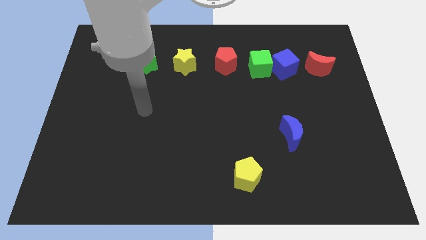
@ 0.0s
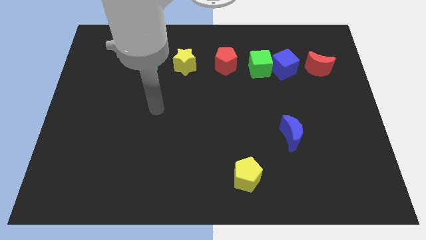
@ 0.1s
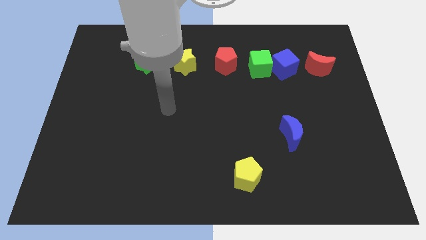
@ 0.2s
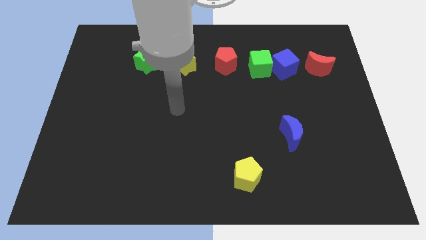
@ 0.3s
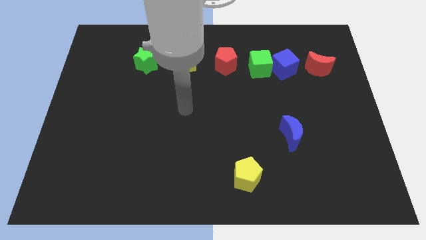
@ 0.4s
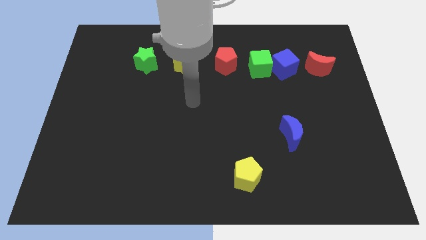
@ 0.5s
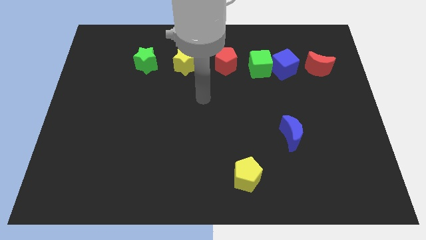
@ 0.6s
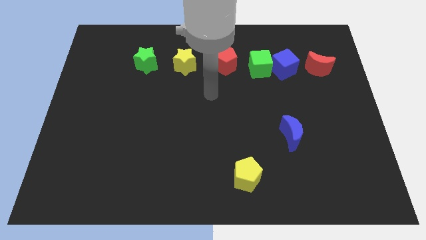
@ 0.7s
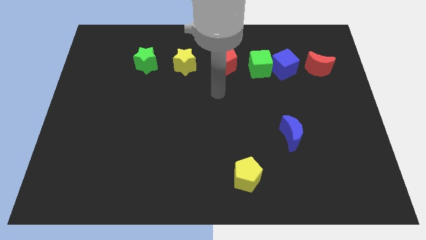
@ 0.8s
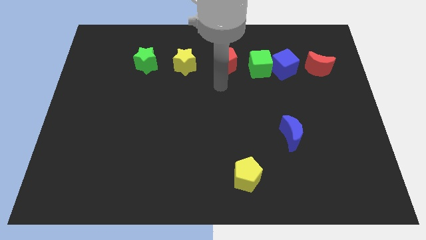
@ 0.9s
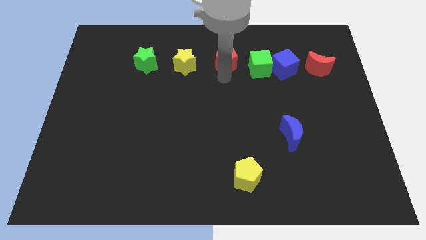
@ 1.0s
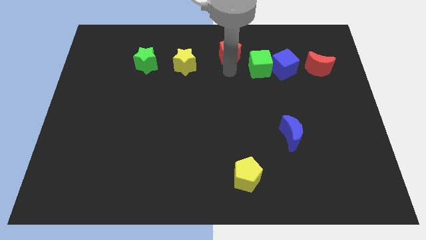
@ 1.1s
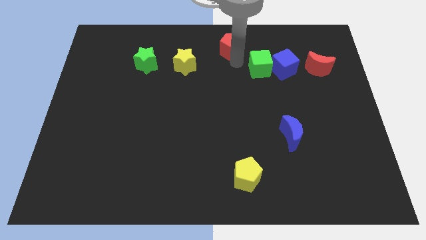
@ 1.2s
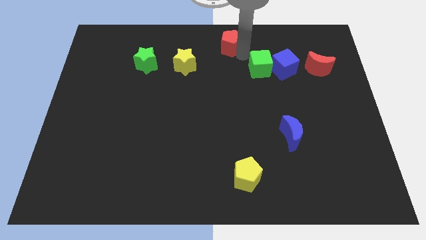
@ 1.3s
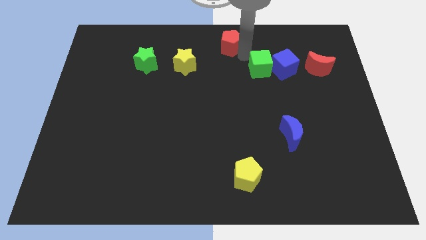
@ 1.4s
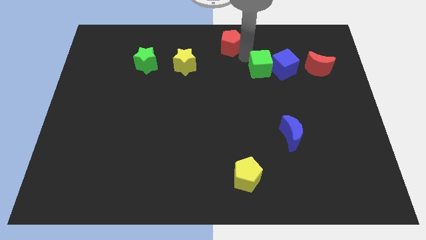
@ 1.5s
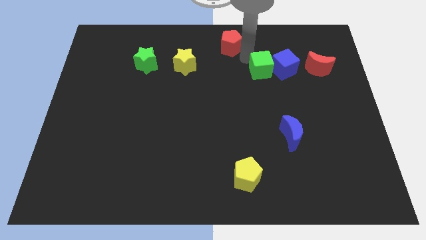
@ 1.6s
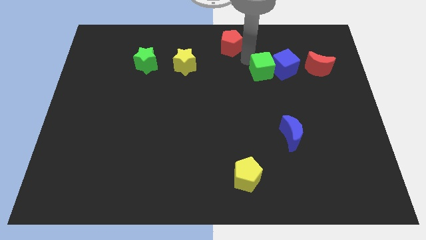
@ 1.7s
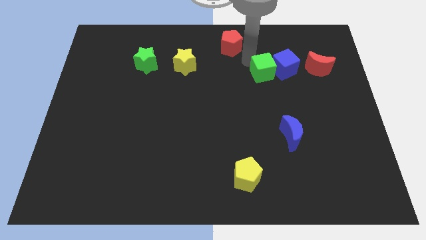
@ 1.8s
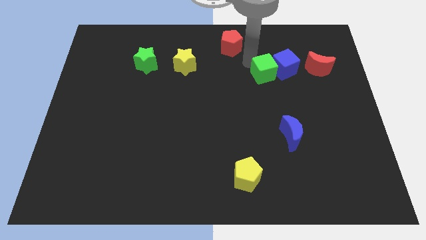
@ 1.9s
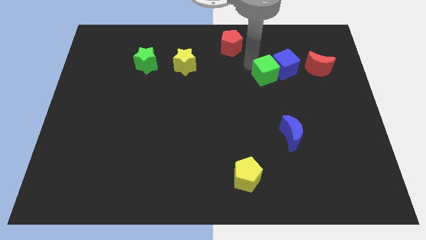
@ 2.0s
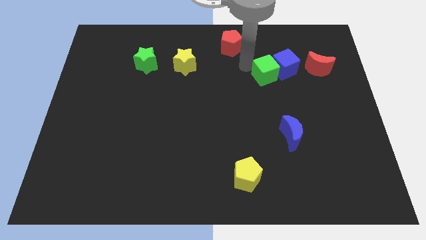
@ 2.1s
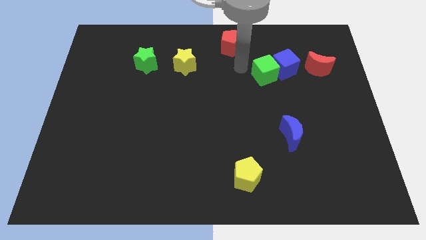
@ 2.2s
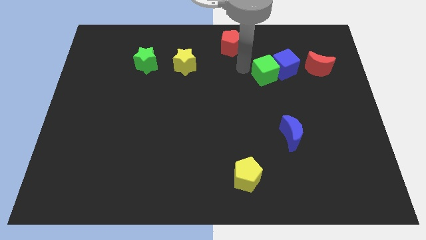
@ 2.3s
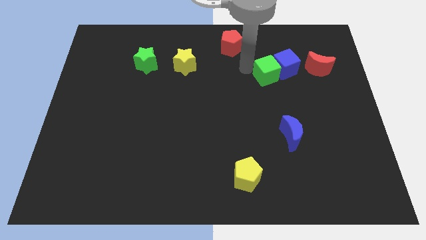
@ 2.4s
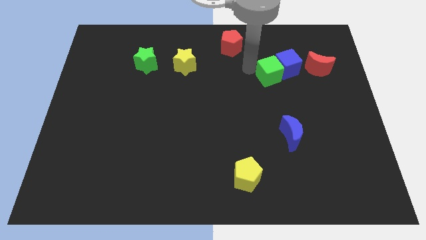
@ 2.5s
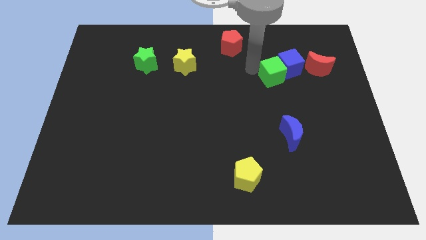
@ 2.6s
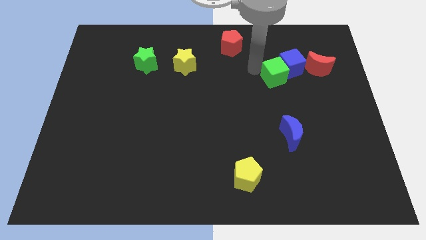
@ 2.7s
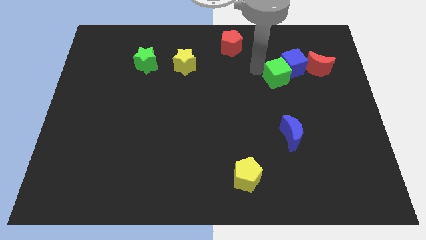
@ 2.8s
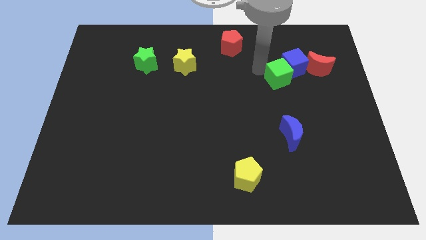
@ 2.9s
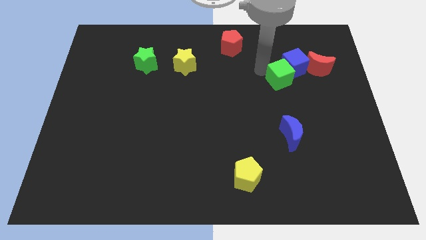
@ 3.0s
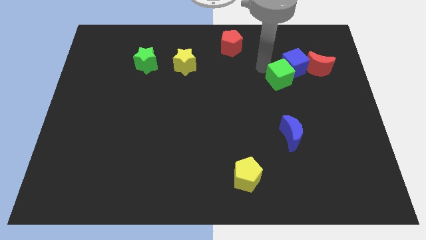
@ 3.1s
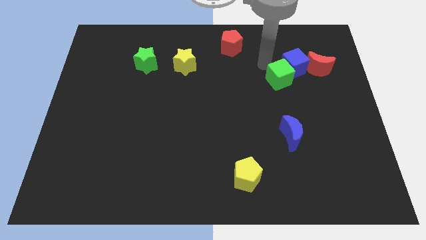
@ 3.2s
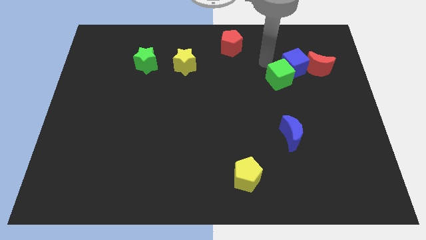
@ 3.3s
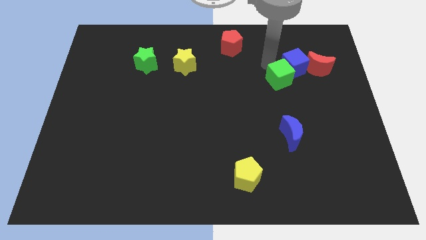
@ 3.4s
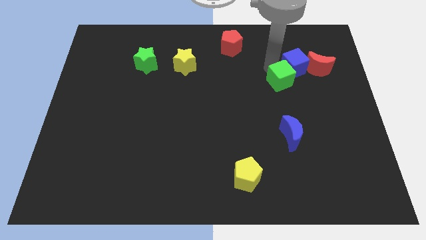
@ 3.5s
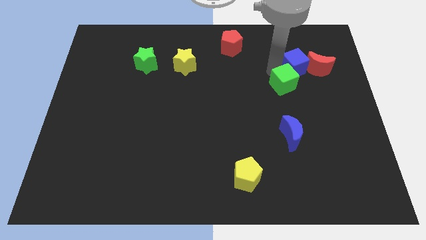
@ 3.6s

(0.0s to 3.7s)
move the green cube away from the blue cube and red pentagon

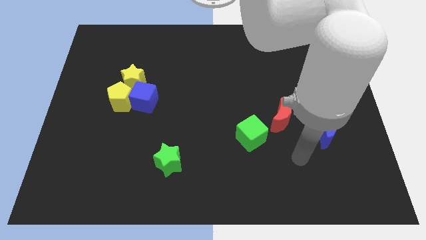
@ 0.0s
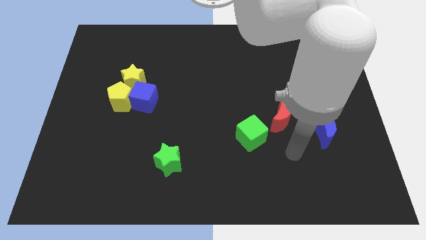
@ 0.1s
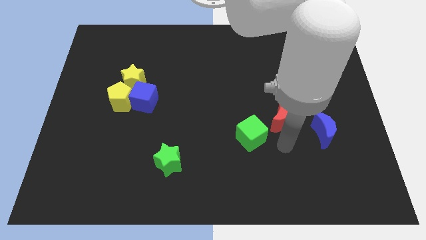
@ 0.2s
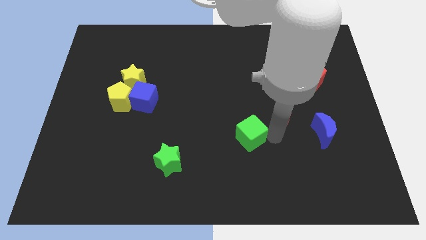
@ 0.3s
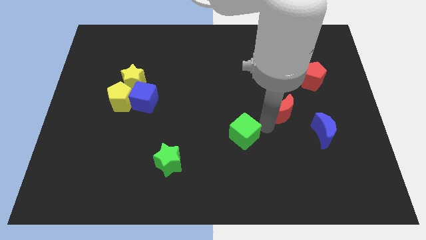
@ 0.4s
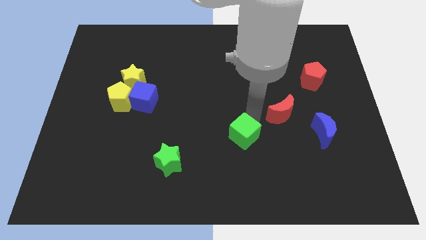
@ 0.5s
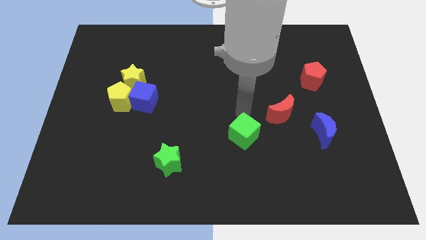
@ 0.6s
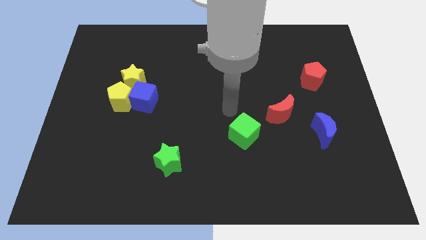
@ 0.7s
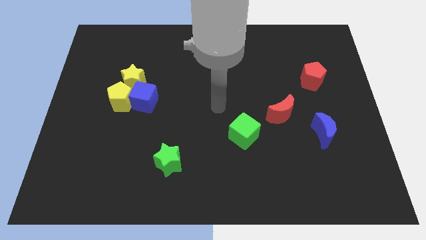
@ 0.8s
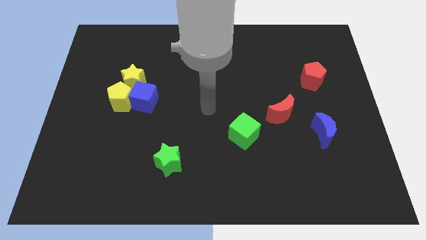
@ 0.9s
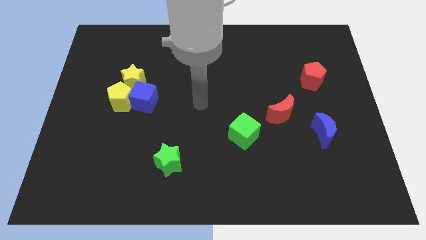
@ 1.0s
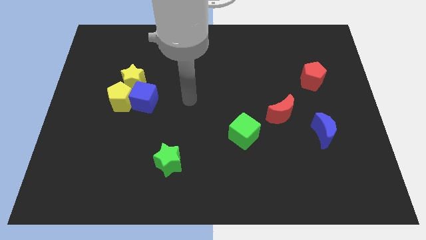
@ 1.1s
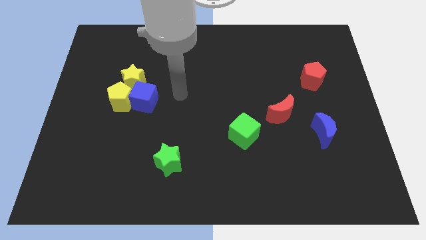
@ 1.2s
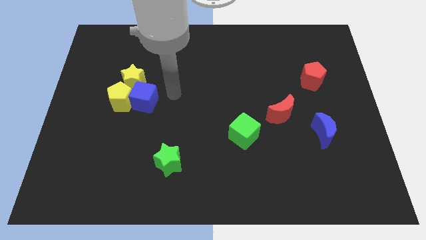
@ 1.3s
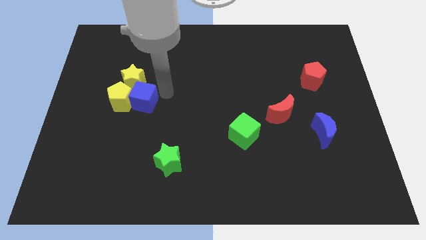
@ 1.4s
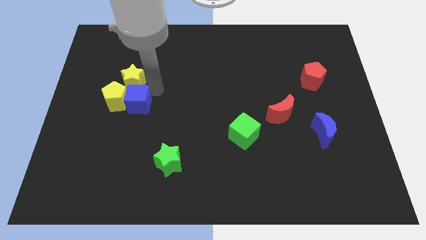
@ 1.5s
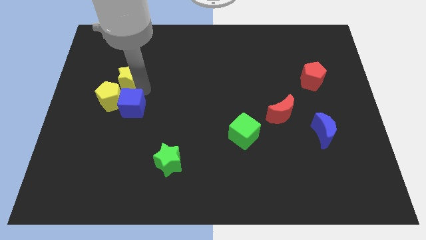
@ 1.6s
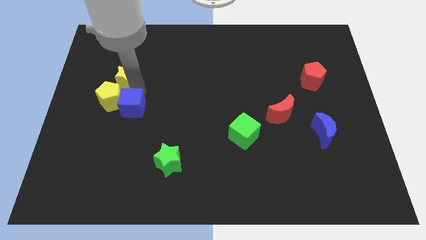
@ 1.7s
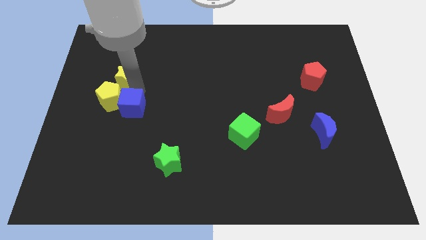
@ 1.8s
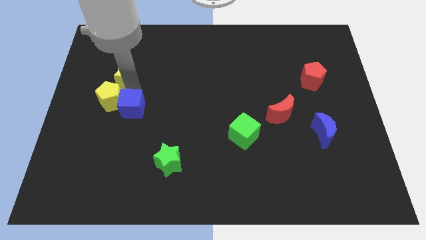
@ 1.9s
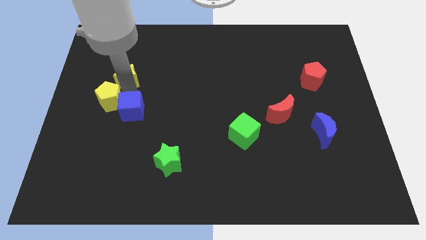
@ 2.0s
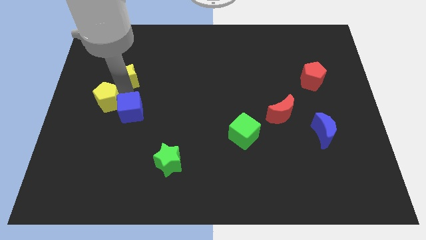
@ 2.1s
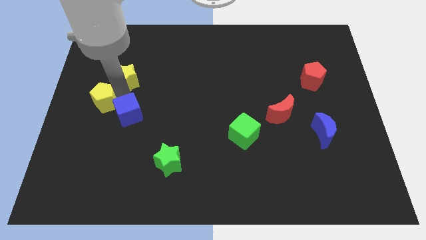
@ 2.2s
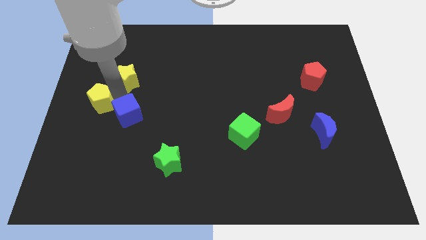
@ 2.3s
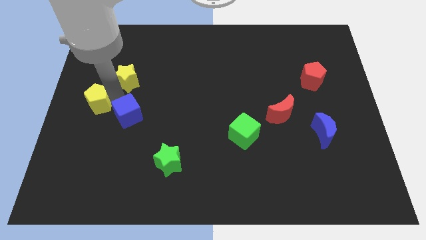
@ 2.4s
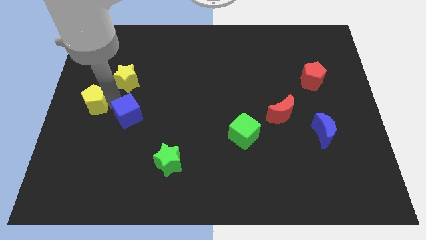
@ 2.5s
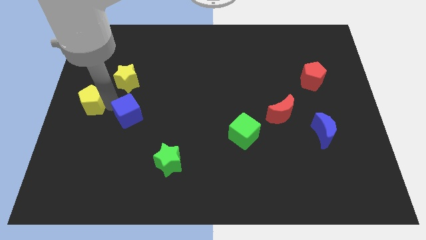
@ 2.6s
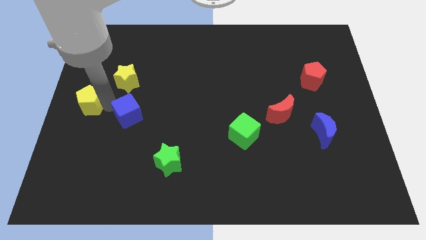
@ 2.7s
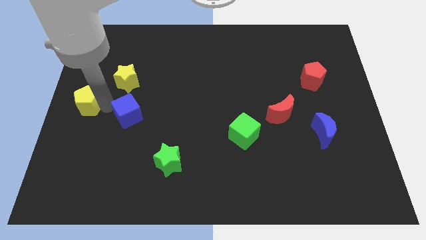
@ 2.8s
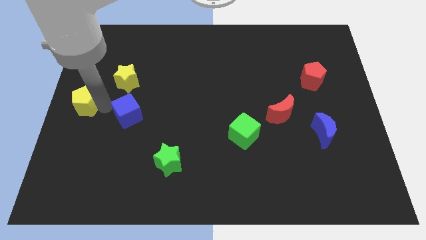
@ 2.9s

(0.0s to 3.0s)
move the yellow pentagon away from the blue cube and yellow star

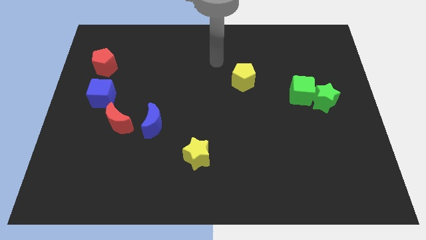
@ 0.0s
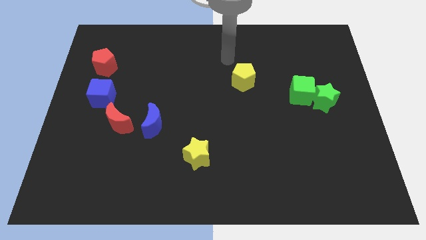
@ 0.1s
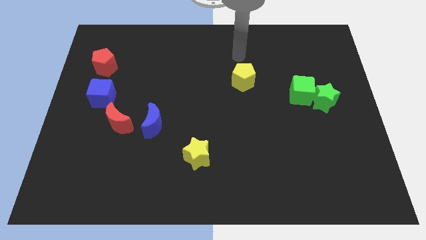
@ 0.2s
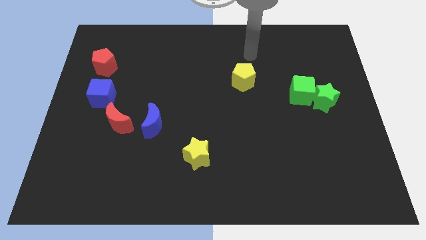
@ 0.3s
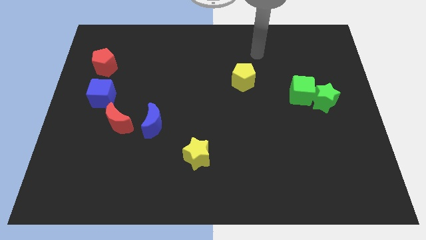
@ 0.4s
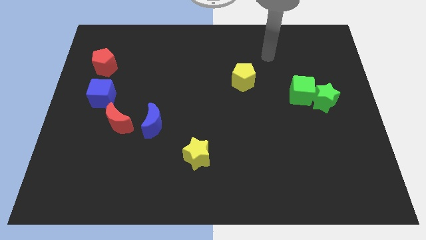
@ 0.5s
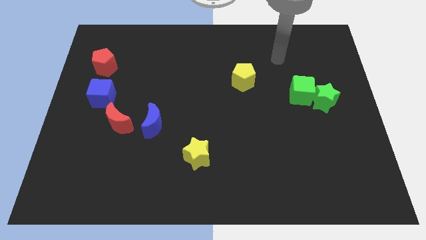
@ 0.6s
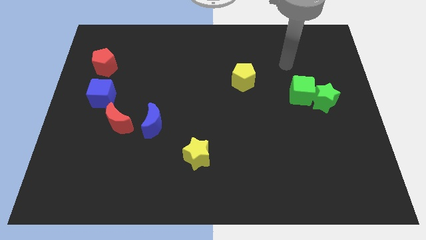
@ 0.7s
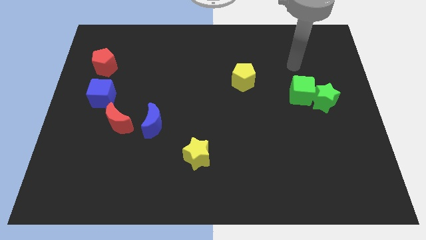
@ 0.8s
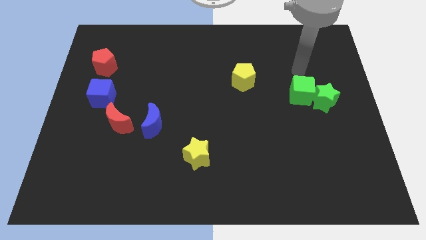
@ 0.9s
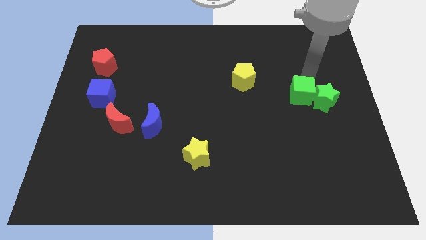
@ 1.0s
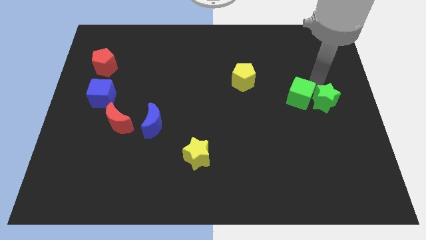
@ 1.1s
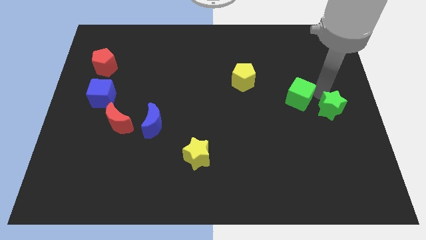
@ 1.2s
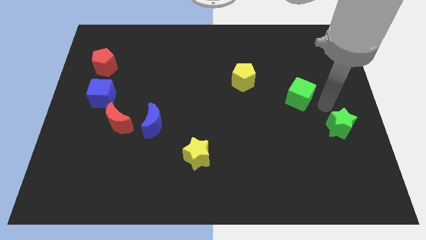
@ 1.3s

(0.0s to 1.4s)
pull the green cube apart from the green star

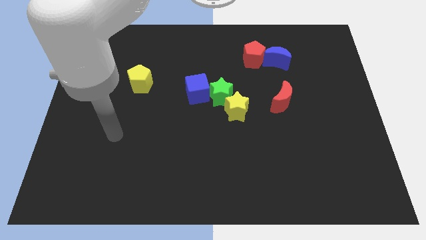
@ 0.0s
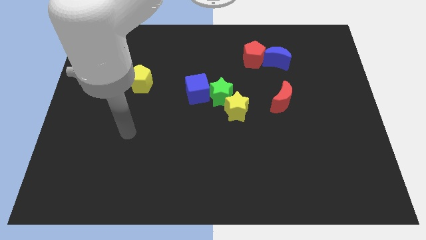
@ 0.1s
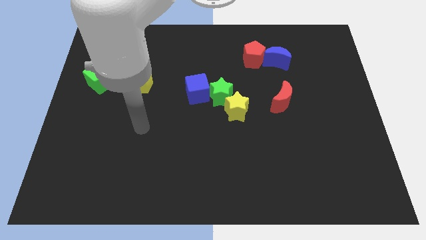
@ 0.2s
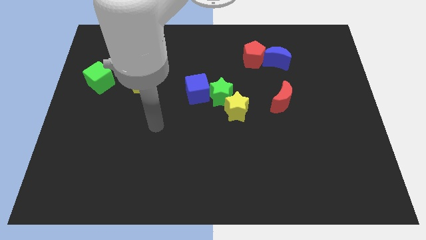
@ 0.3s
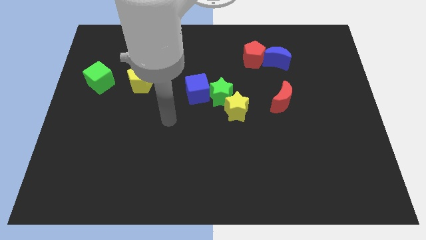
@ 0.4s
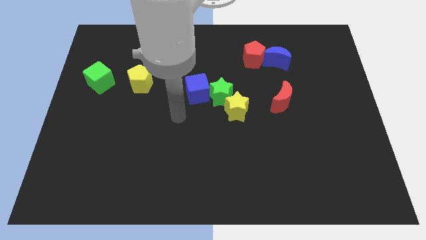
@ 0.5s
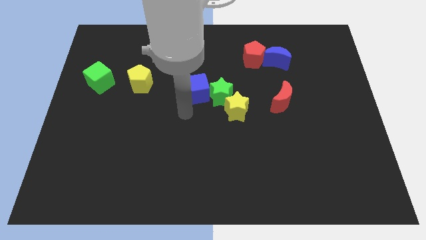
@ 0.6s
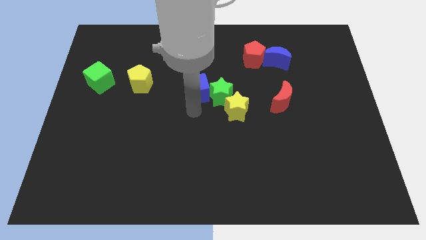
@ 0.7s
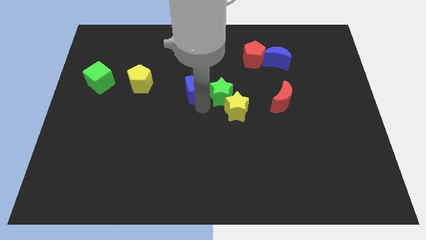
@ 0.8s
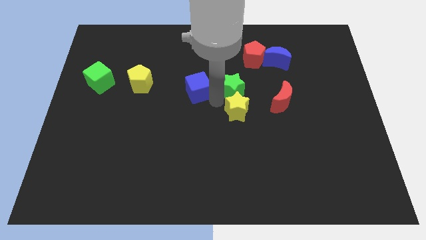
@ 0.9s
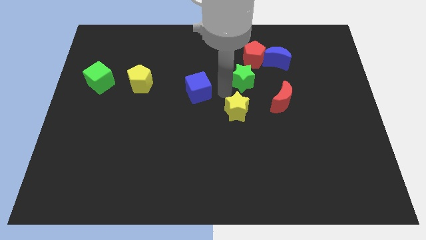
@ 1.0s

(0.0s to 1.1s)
move the blue cube away from the green star

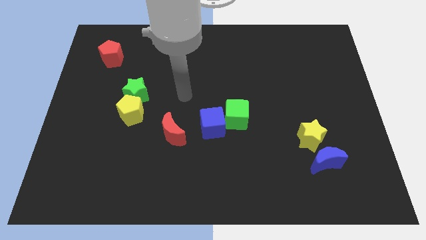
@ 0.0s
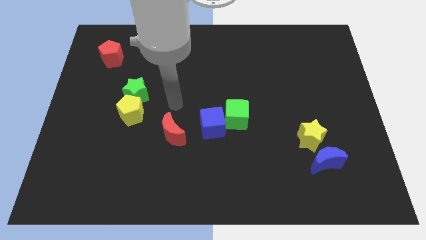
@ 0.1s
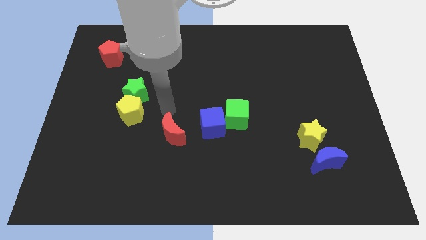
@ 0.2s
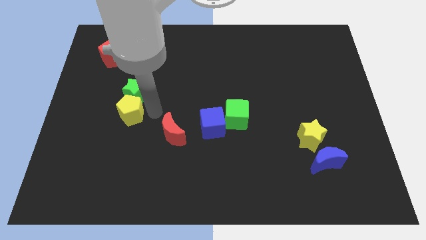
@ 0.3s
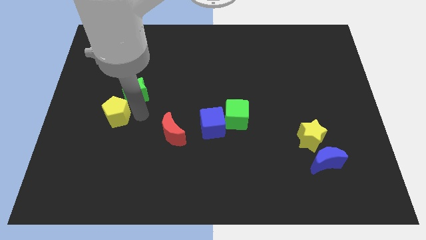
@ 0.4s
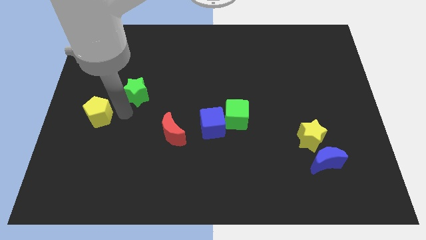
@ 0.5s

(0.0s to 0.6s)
separate the green star from the yellow pentagon
